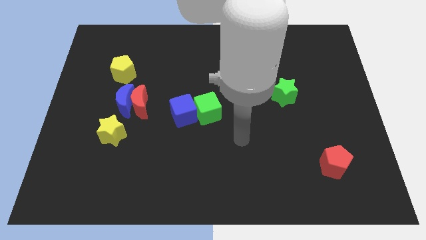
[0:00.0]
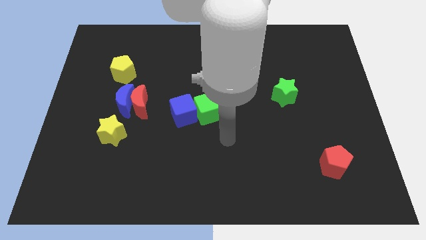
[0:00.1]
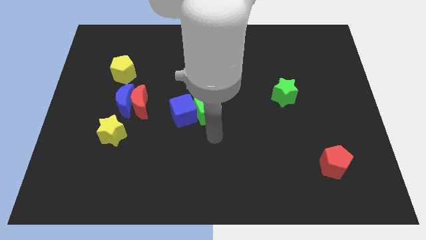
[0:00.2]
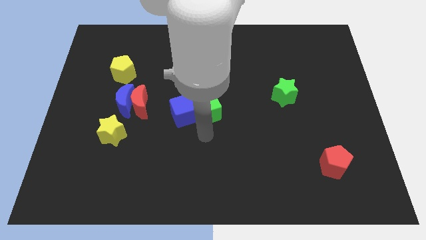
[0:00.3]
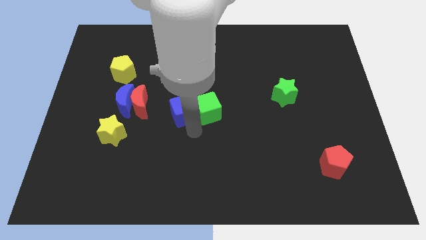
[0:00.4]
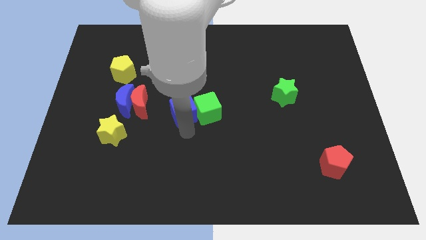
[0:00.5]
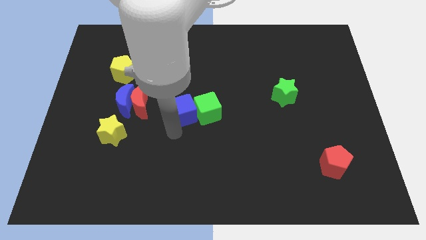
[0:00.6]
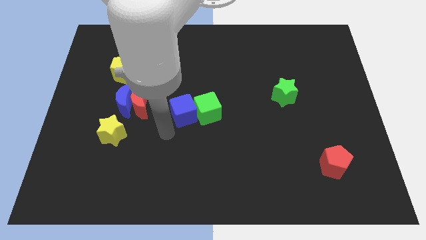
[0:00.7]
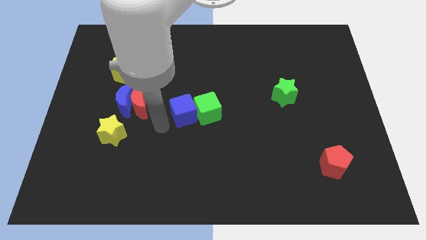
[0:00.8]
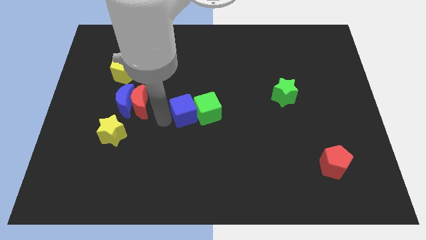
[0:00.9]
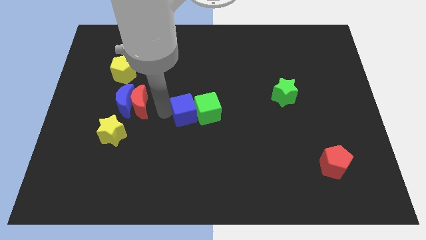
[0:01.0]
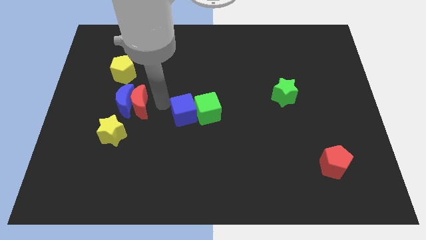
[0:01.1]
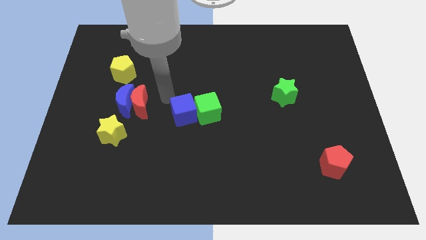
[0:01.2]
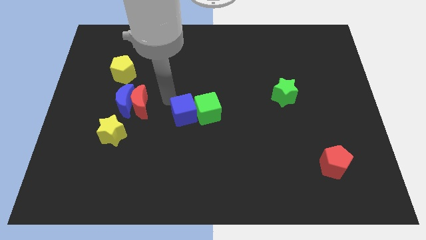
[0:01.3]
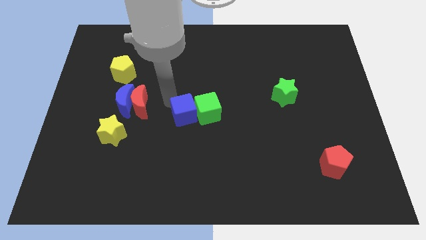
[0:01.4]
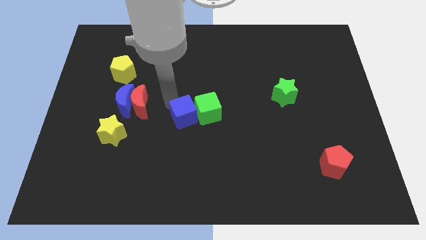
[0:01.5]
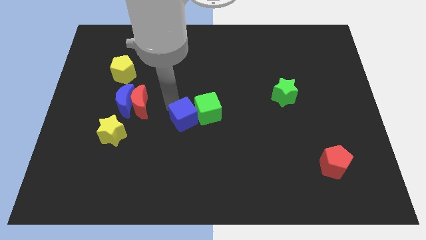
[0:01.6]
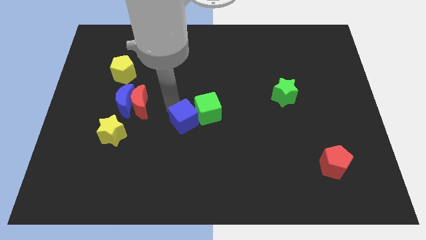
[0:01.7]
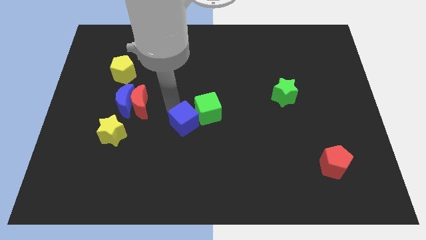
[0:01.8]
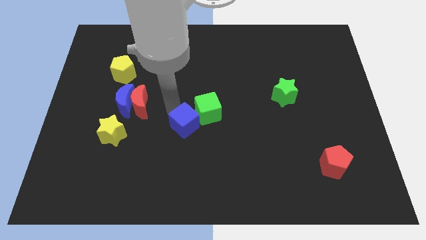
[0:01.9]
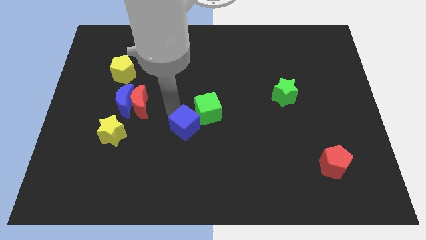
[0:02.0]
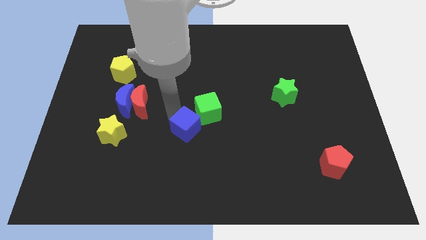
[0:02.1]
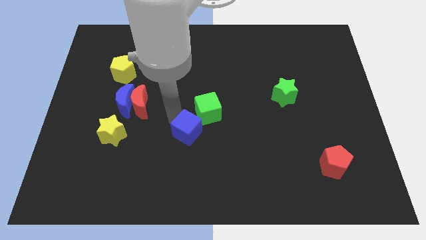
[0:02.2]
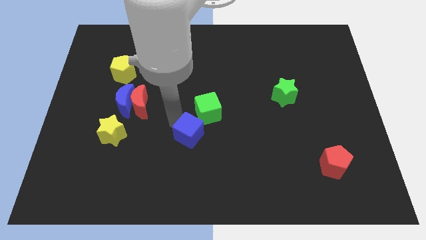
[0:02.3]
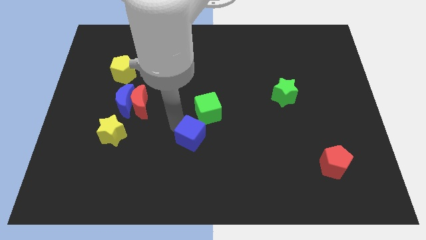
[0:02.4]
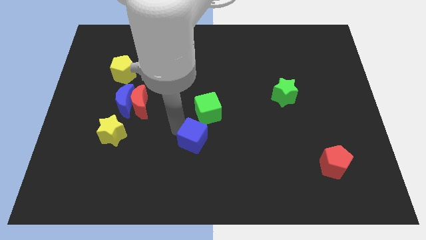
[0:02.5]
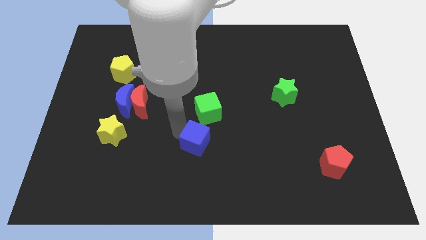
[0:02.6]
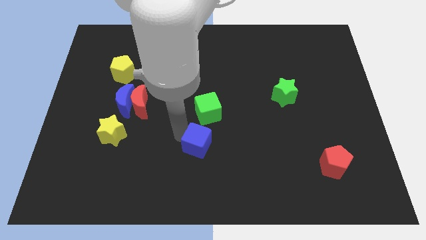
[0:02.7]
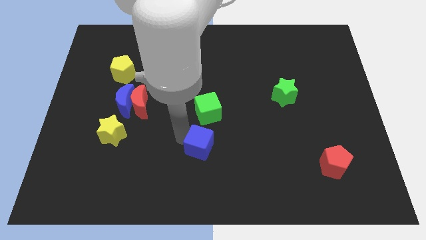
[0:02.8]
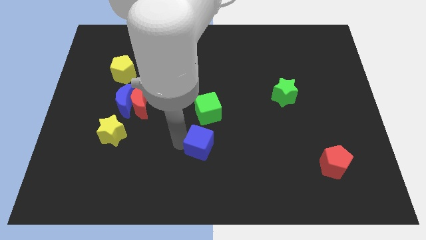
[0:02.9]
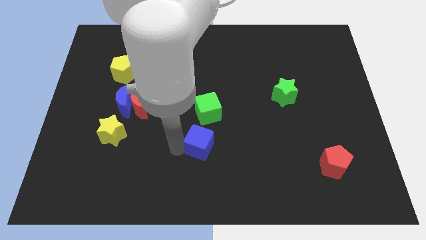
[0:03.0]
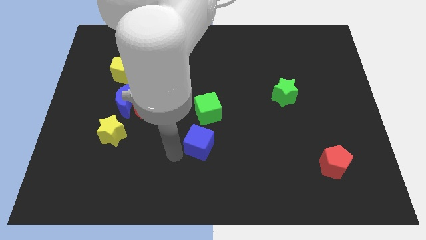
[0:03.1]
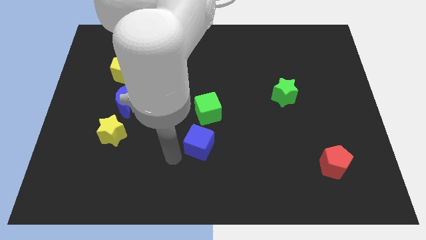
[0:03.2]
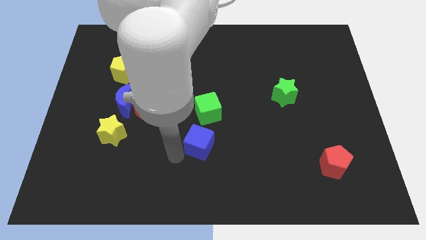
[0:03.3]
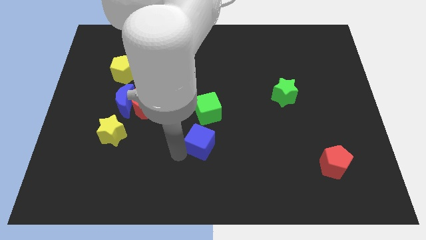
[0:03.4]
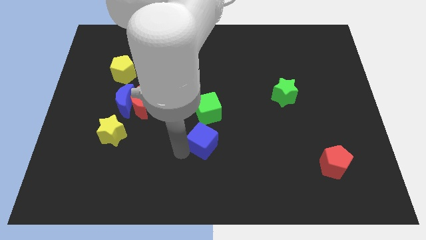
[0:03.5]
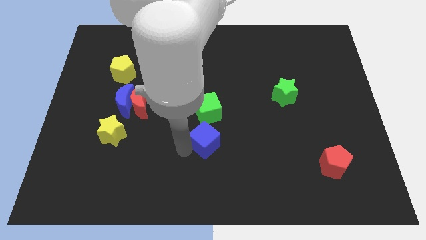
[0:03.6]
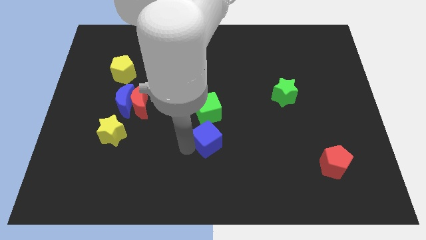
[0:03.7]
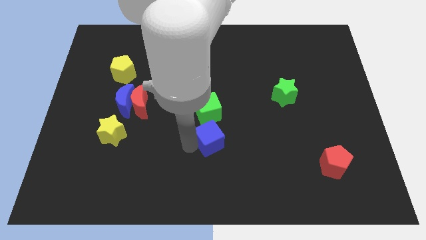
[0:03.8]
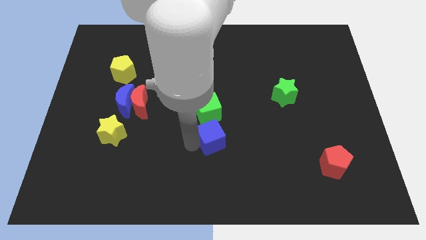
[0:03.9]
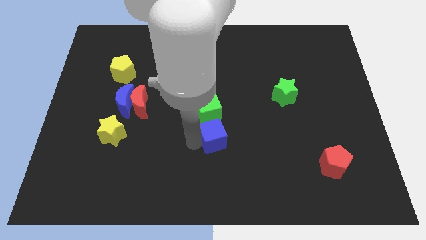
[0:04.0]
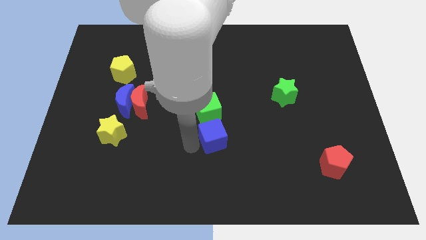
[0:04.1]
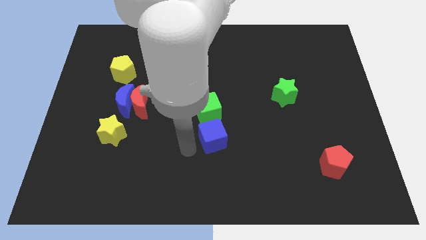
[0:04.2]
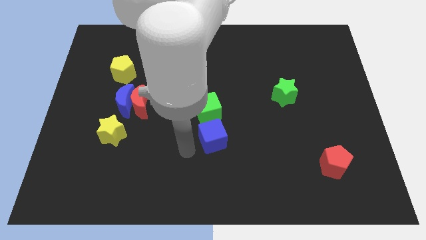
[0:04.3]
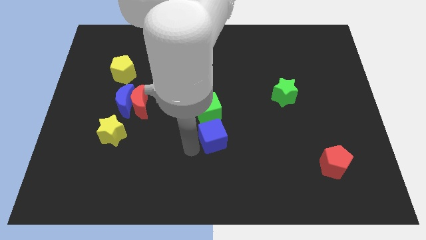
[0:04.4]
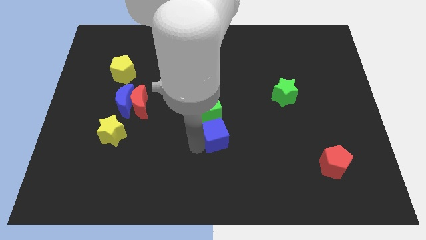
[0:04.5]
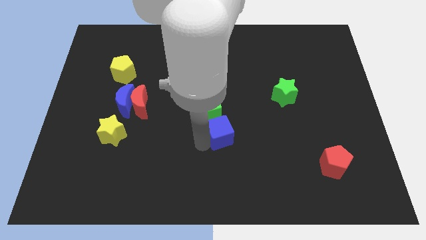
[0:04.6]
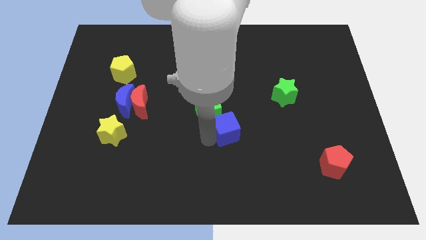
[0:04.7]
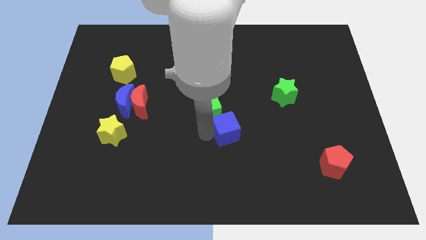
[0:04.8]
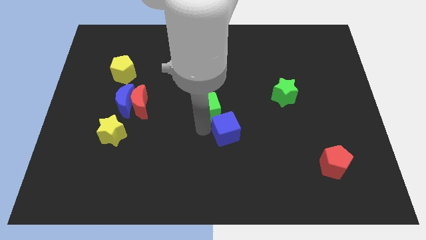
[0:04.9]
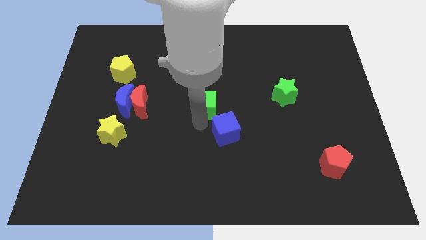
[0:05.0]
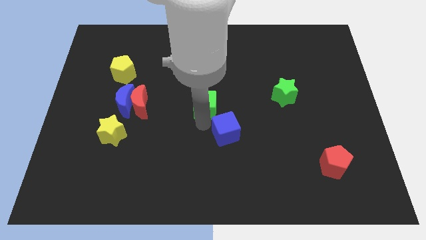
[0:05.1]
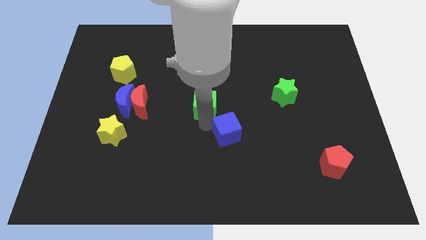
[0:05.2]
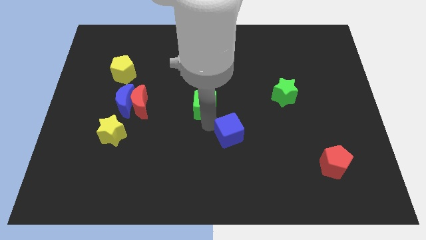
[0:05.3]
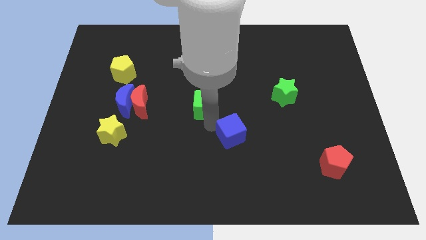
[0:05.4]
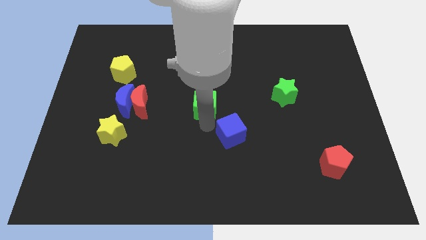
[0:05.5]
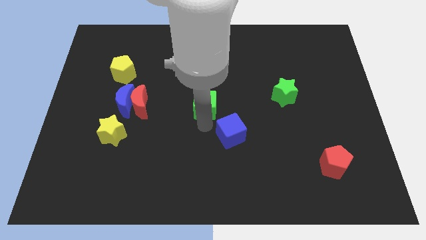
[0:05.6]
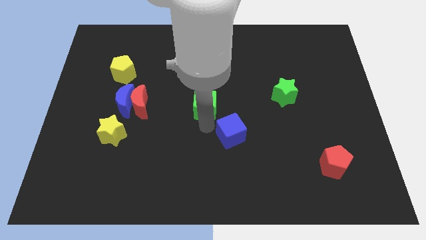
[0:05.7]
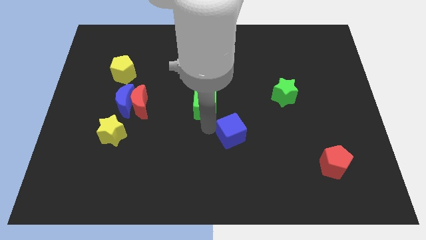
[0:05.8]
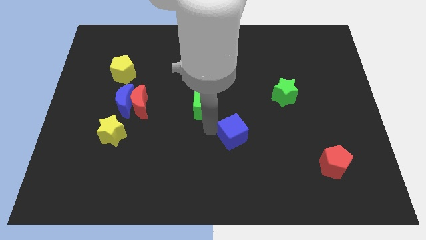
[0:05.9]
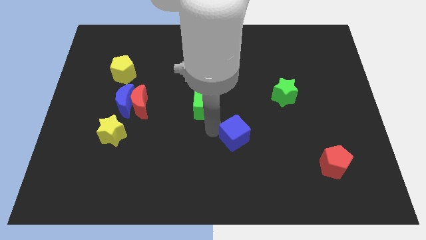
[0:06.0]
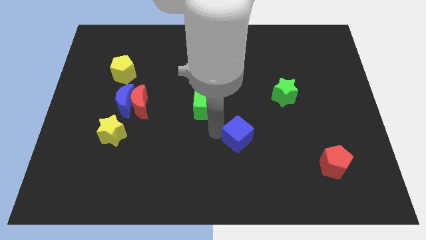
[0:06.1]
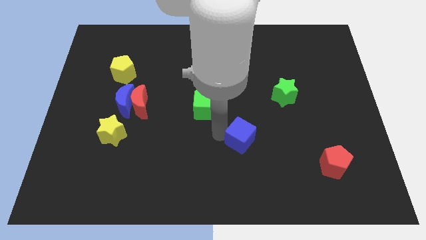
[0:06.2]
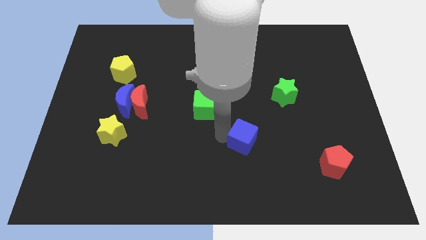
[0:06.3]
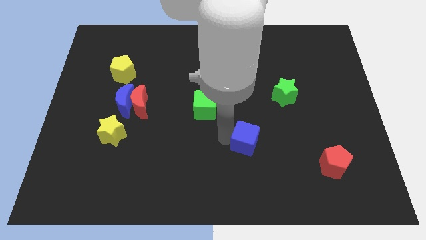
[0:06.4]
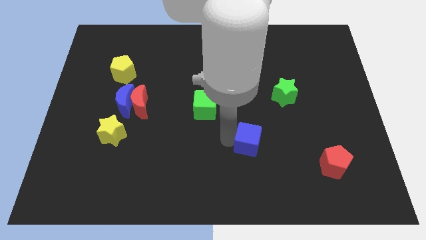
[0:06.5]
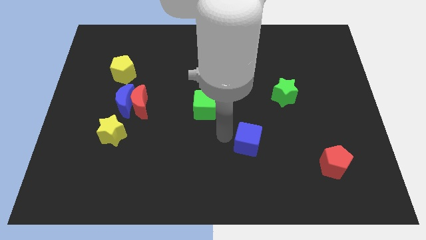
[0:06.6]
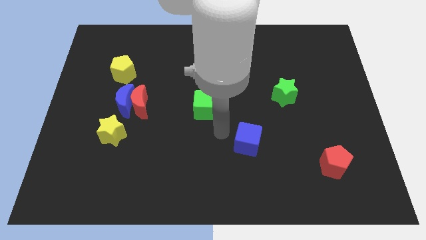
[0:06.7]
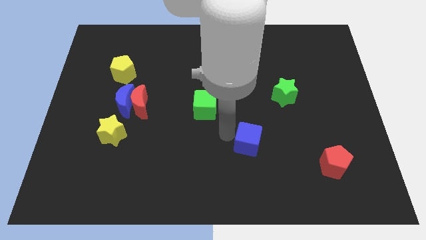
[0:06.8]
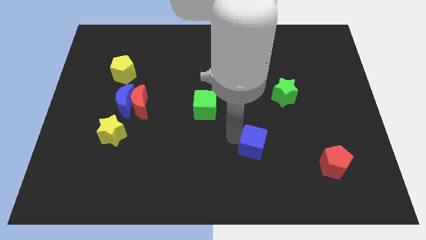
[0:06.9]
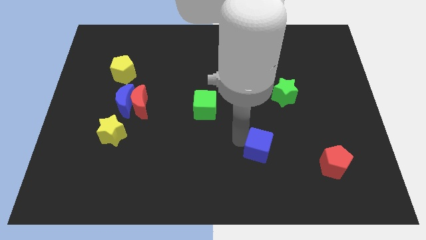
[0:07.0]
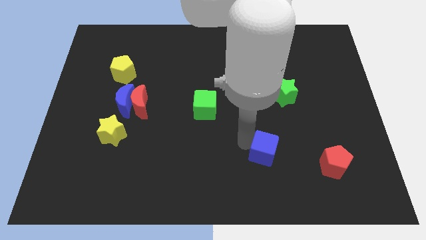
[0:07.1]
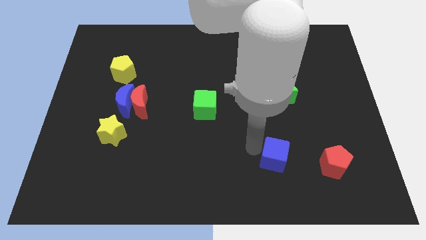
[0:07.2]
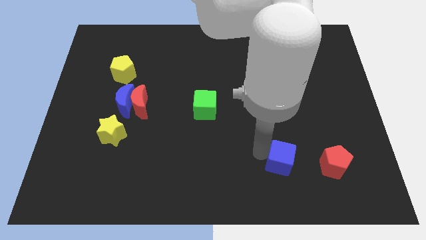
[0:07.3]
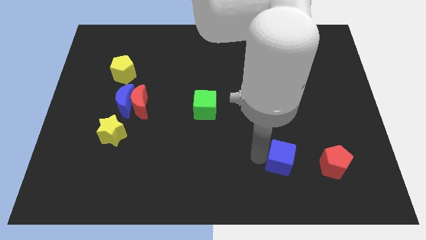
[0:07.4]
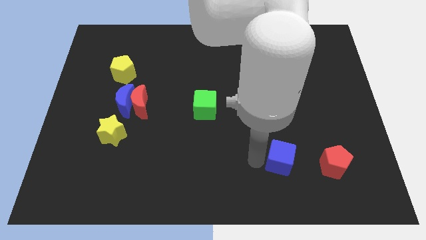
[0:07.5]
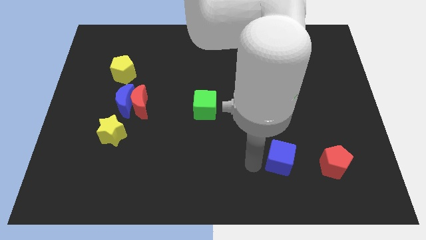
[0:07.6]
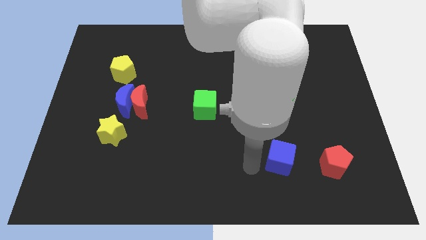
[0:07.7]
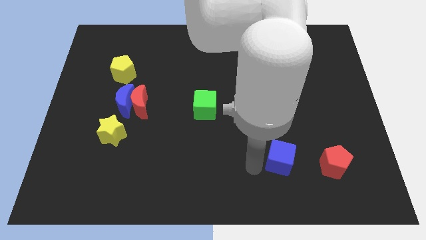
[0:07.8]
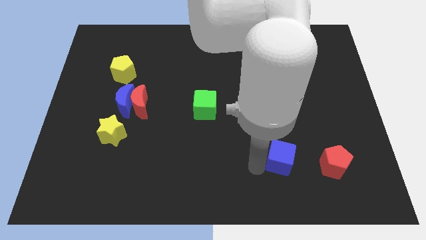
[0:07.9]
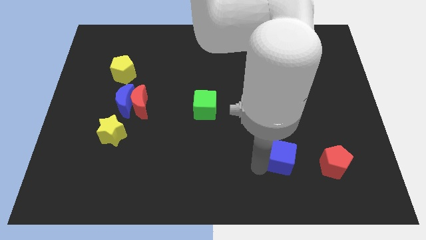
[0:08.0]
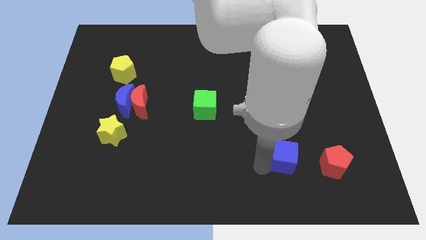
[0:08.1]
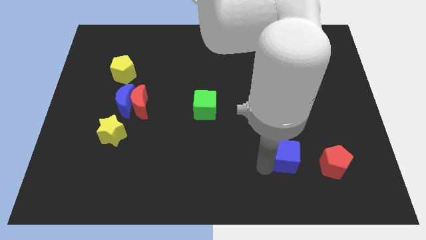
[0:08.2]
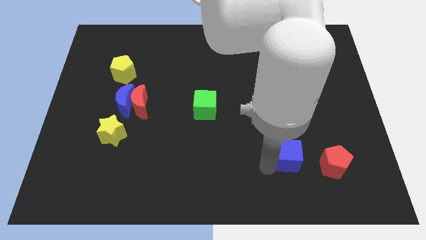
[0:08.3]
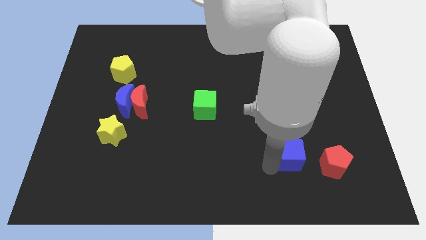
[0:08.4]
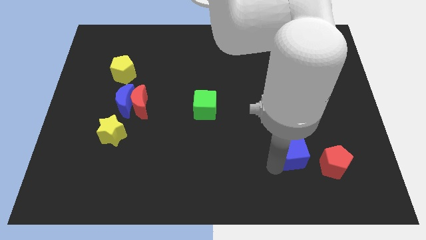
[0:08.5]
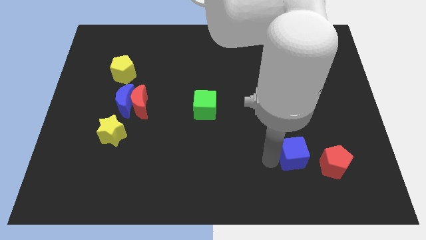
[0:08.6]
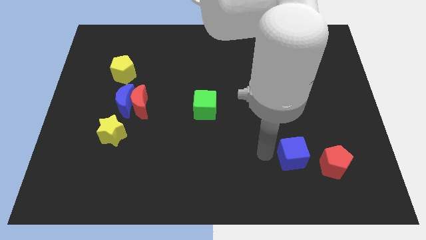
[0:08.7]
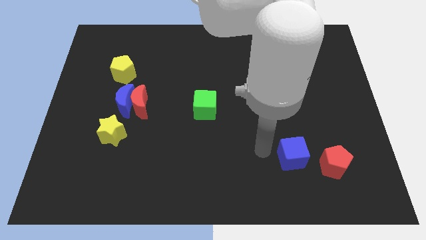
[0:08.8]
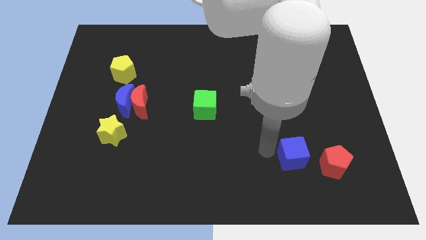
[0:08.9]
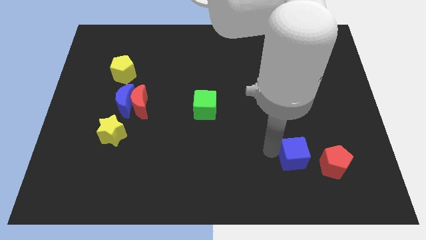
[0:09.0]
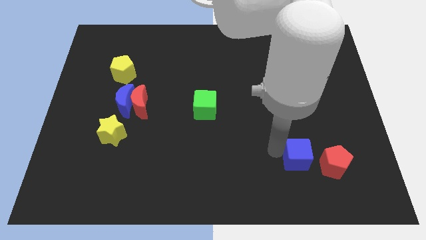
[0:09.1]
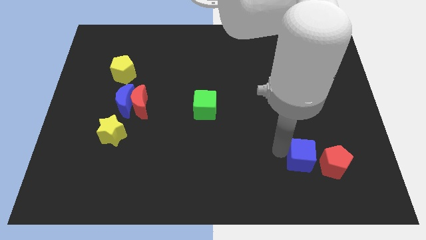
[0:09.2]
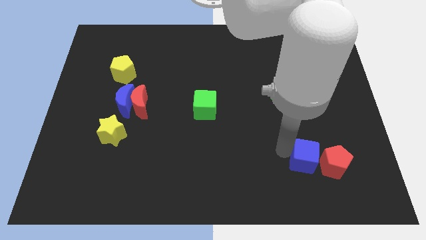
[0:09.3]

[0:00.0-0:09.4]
push the blue cube close to the red pentagon
